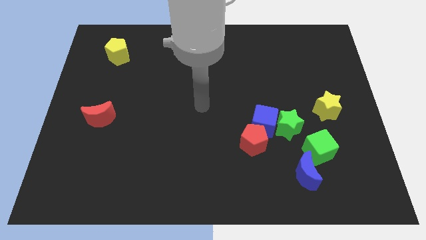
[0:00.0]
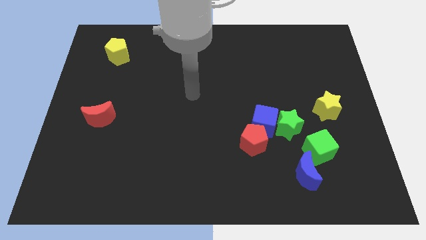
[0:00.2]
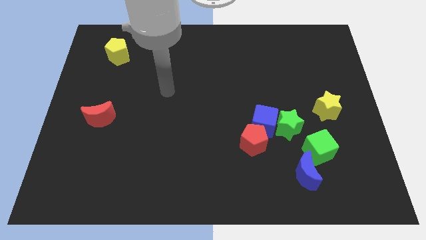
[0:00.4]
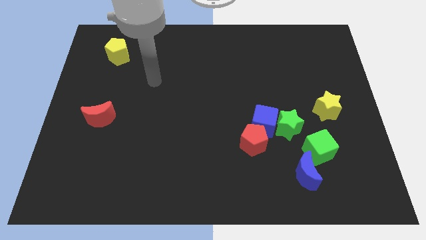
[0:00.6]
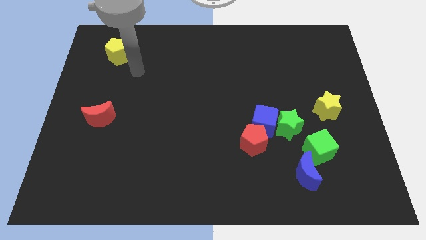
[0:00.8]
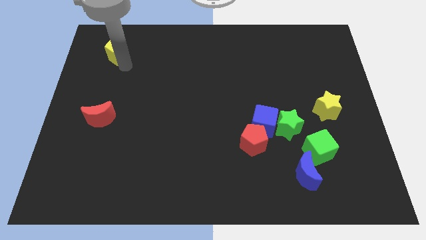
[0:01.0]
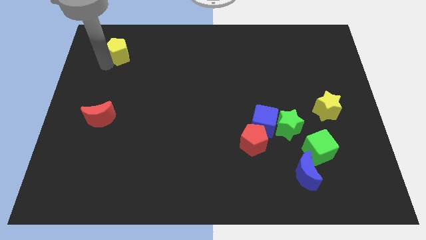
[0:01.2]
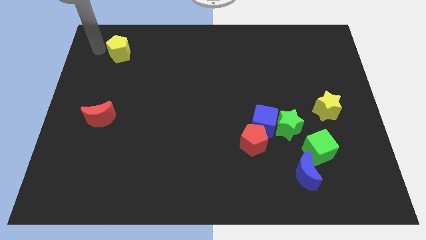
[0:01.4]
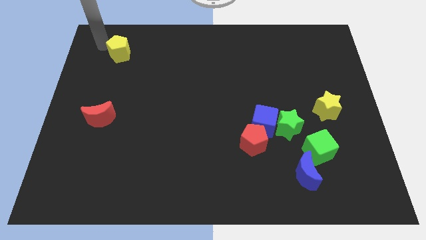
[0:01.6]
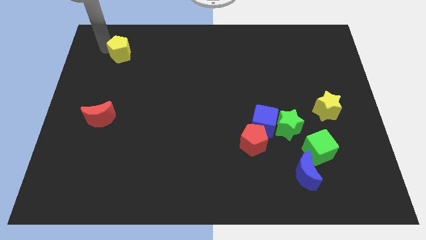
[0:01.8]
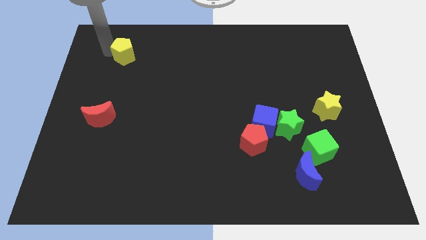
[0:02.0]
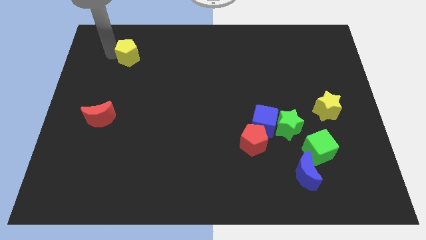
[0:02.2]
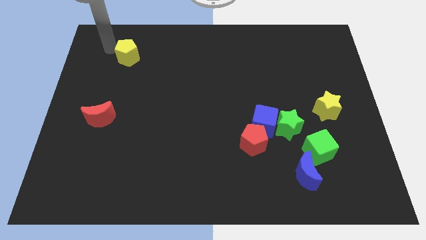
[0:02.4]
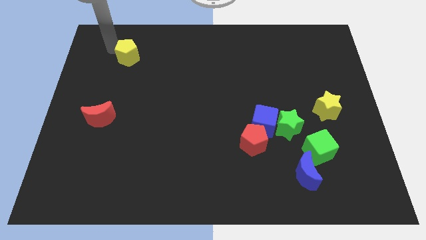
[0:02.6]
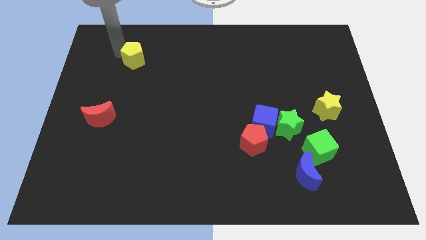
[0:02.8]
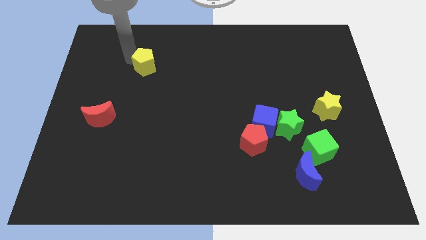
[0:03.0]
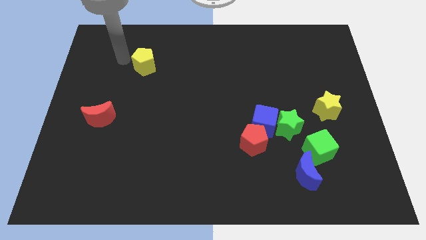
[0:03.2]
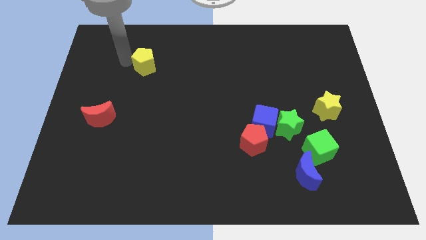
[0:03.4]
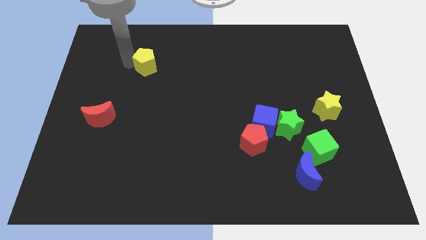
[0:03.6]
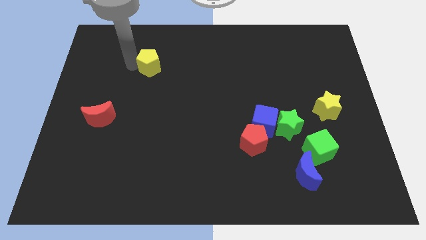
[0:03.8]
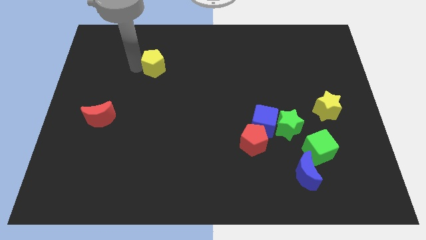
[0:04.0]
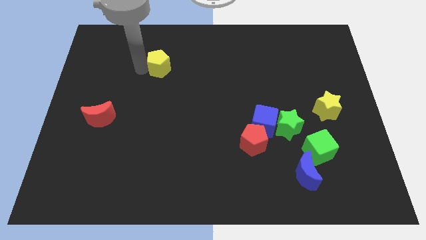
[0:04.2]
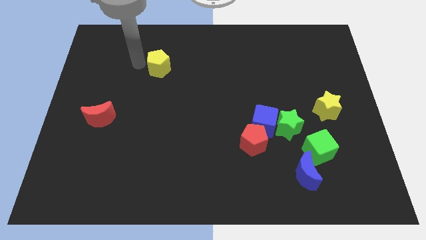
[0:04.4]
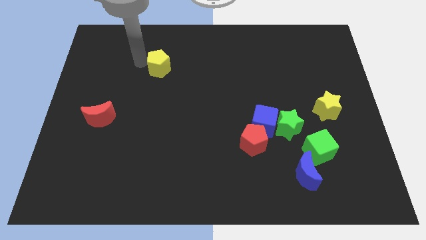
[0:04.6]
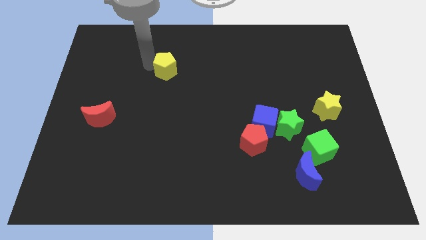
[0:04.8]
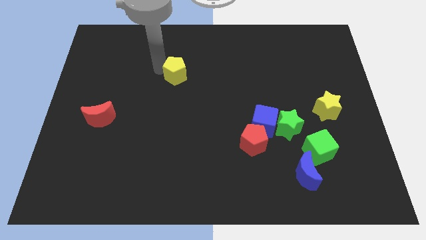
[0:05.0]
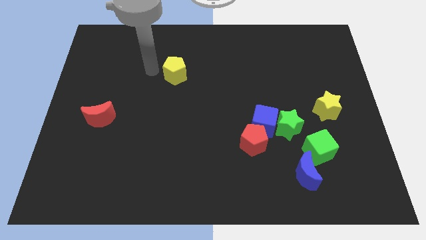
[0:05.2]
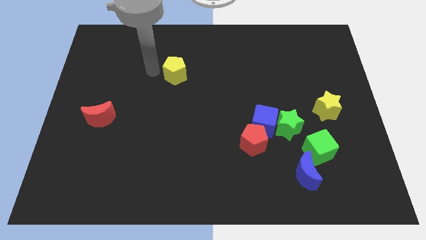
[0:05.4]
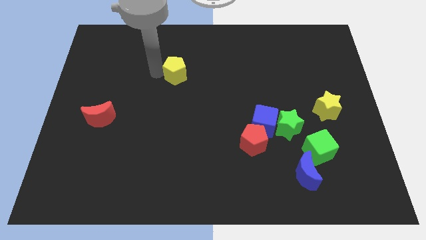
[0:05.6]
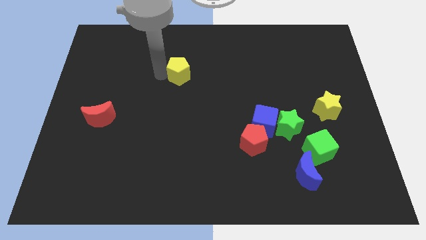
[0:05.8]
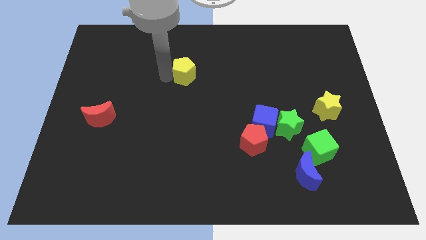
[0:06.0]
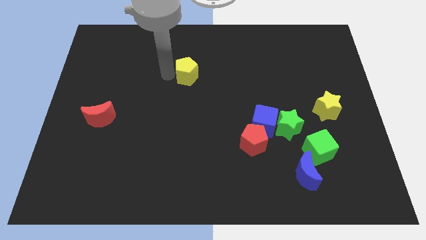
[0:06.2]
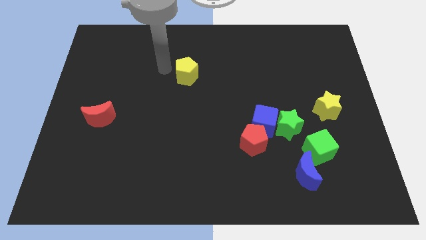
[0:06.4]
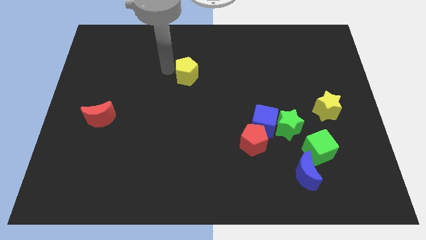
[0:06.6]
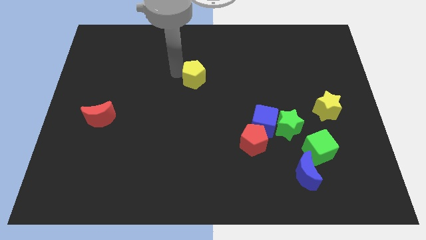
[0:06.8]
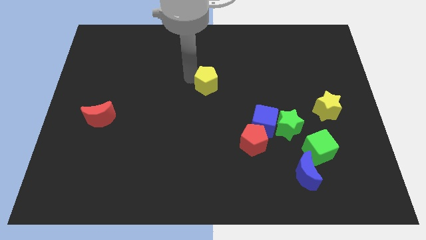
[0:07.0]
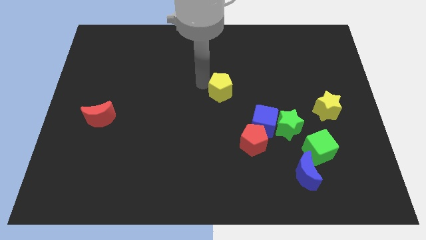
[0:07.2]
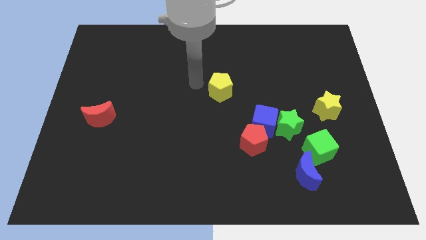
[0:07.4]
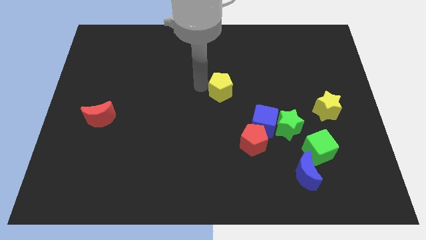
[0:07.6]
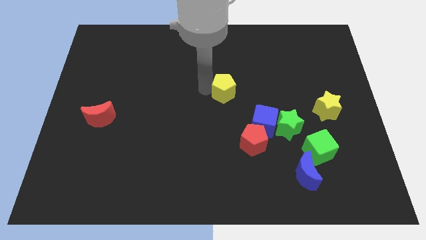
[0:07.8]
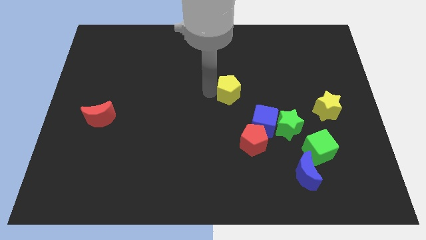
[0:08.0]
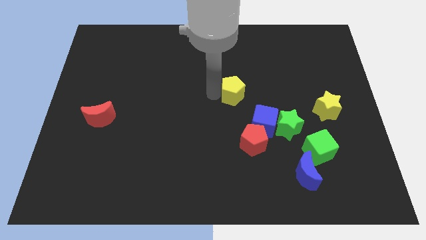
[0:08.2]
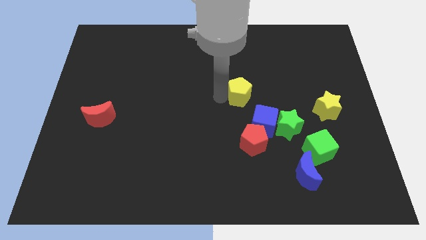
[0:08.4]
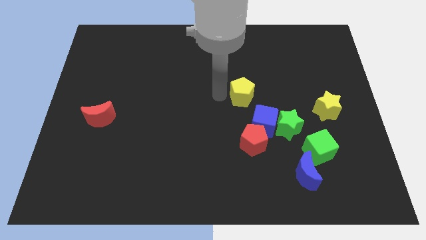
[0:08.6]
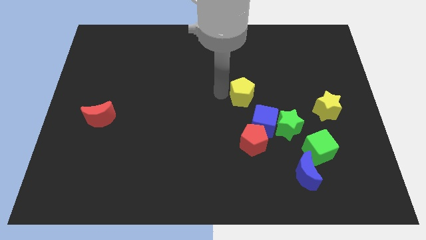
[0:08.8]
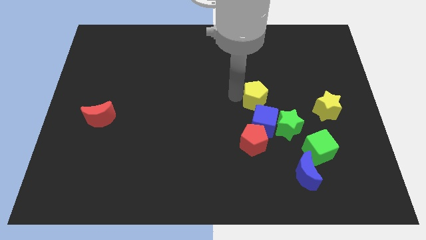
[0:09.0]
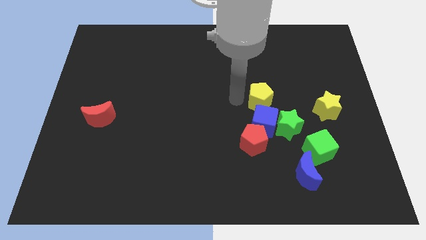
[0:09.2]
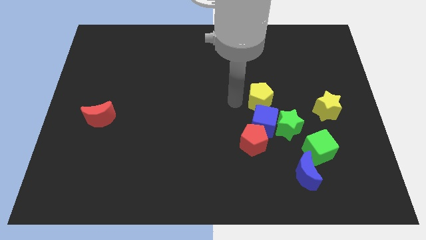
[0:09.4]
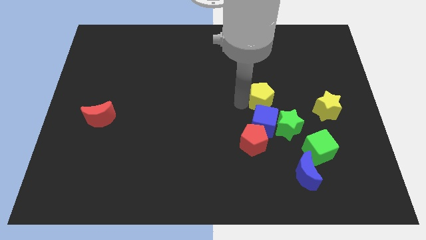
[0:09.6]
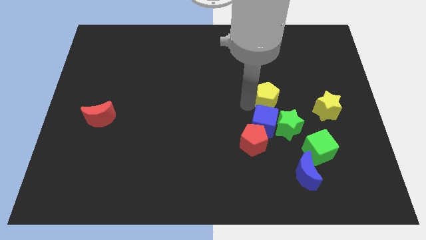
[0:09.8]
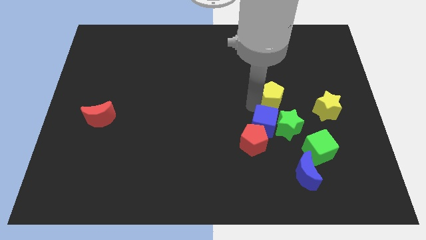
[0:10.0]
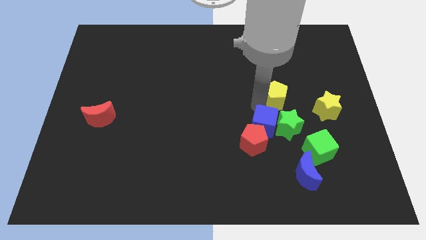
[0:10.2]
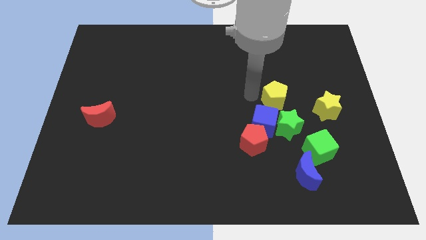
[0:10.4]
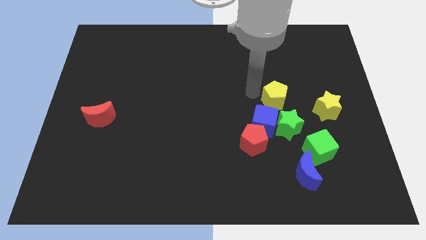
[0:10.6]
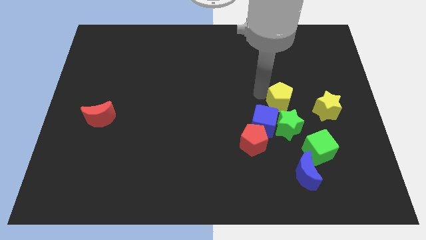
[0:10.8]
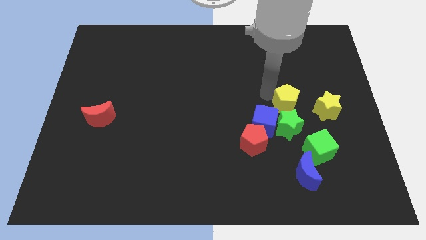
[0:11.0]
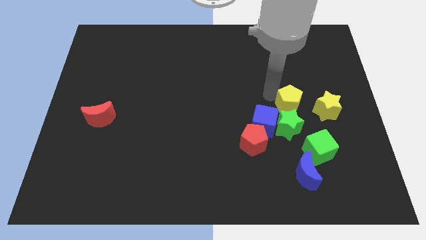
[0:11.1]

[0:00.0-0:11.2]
push the yellow pentagon above the green cube
